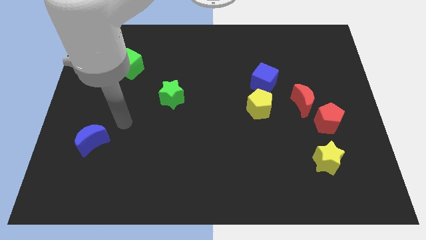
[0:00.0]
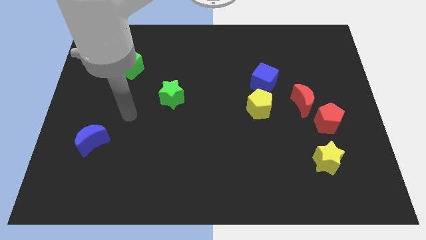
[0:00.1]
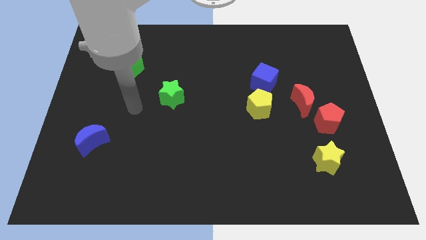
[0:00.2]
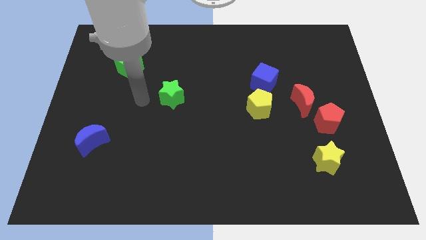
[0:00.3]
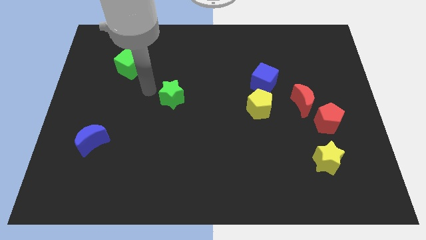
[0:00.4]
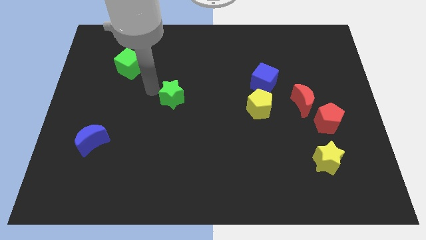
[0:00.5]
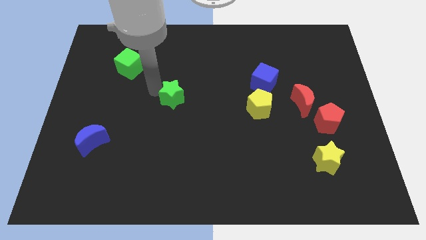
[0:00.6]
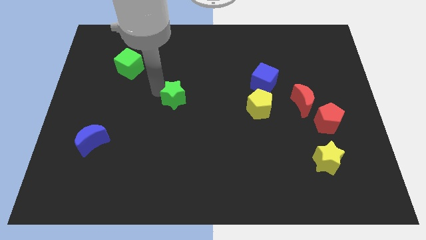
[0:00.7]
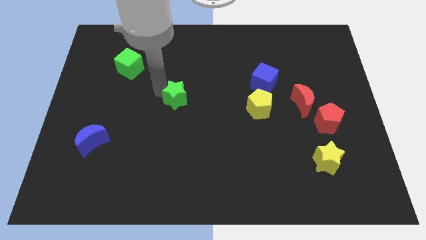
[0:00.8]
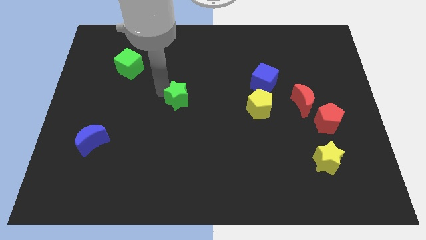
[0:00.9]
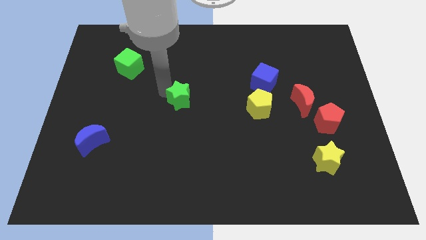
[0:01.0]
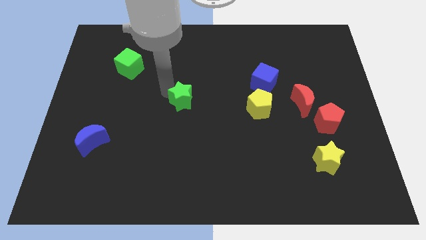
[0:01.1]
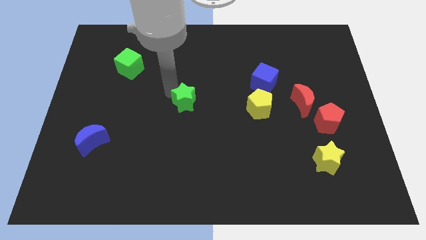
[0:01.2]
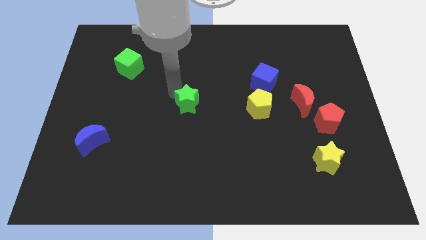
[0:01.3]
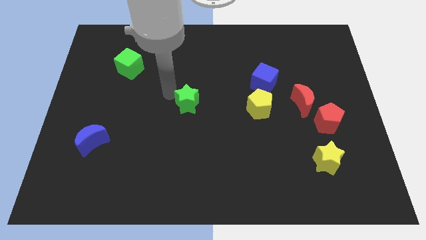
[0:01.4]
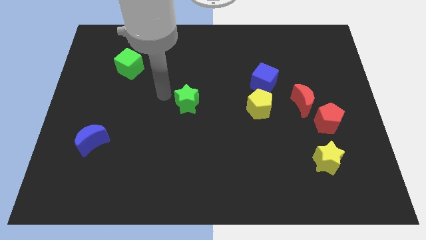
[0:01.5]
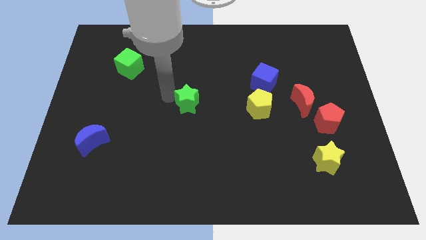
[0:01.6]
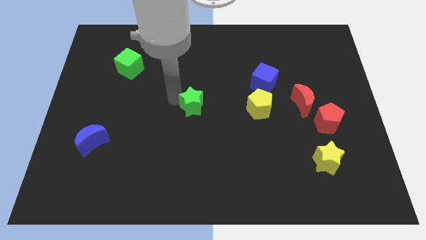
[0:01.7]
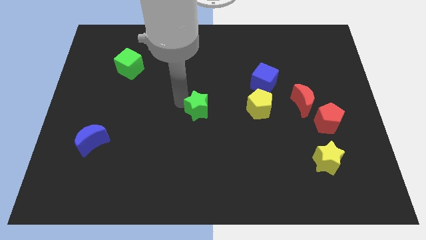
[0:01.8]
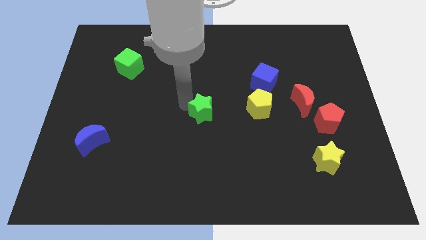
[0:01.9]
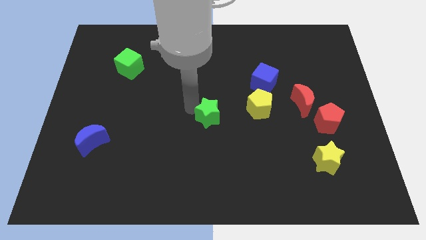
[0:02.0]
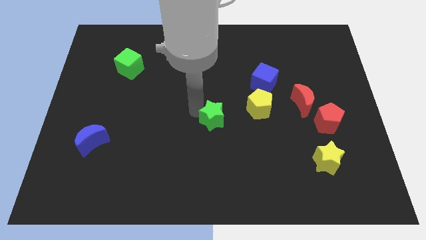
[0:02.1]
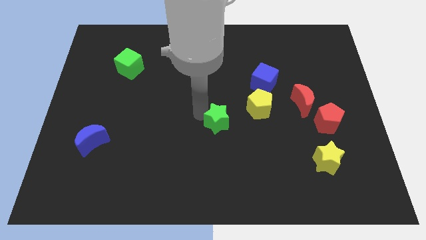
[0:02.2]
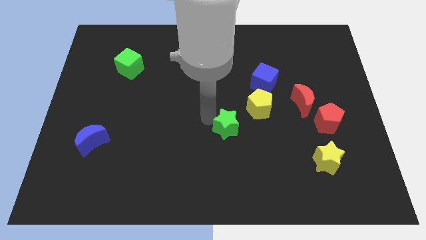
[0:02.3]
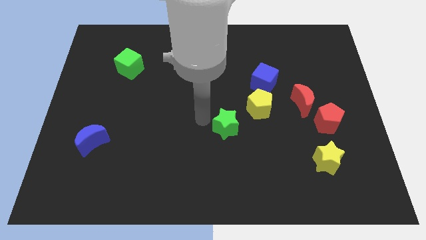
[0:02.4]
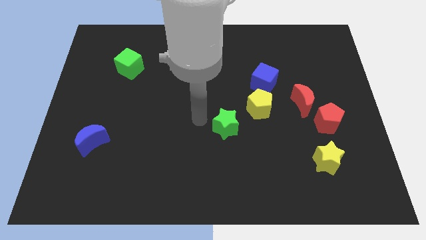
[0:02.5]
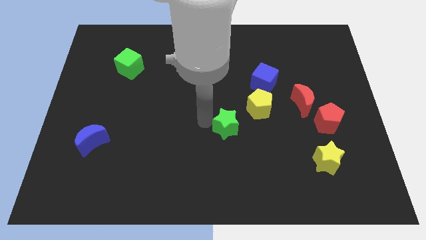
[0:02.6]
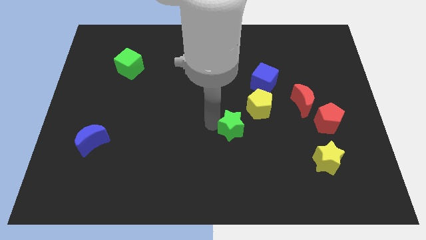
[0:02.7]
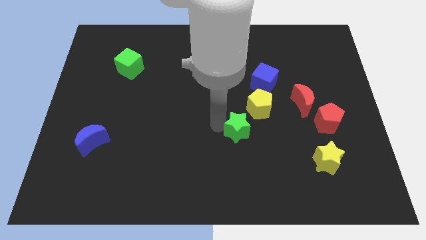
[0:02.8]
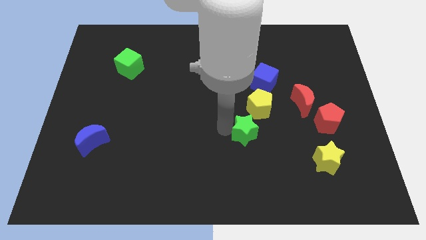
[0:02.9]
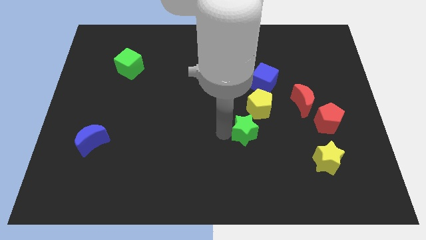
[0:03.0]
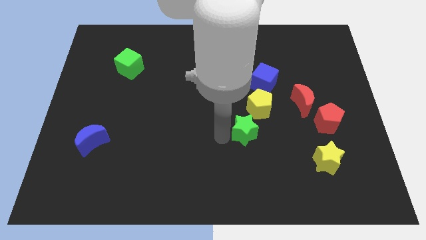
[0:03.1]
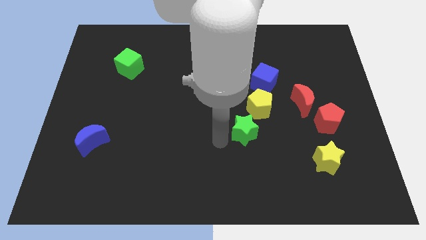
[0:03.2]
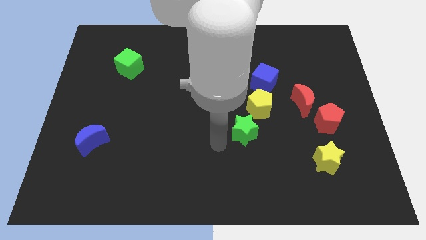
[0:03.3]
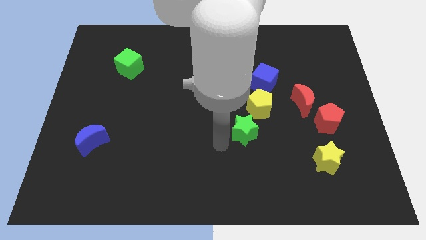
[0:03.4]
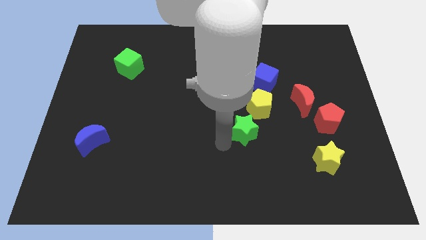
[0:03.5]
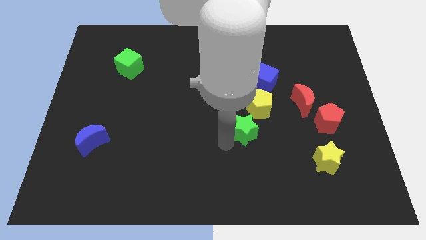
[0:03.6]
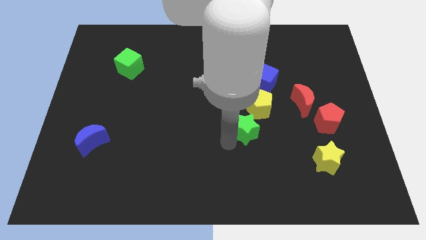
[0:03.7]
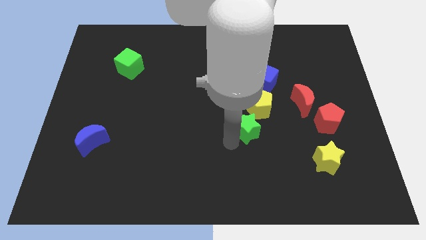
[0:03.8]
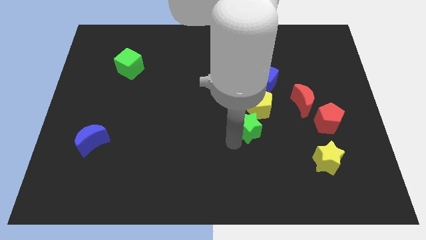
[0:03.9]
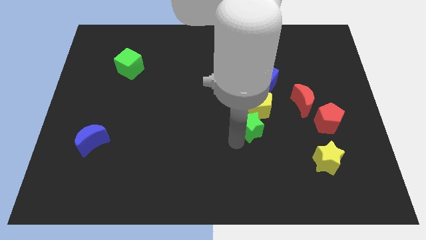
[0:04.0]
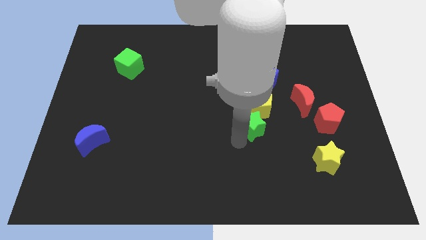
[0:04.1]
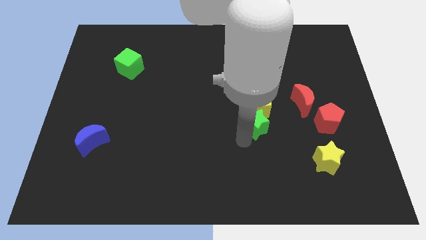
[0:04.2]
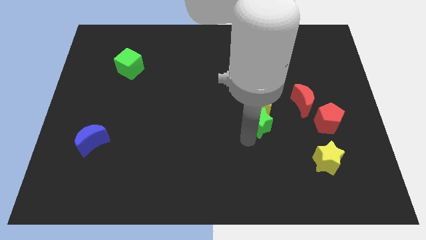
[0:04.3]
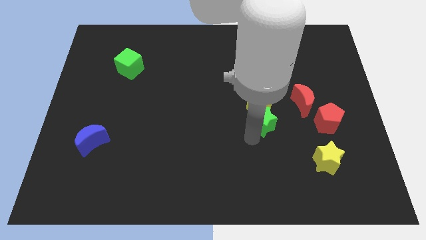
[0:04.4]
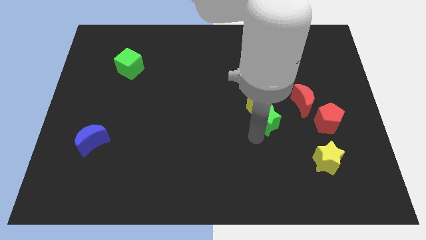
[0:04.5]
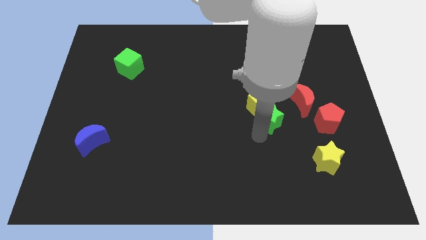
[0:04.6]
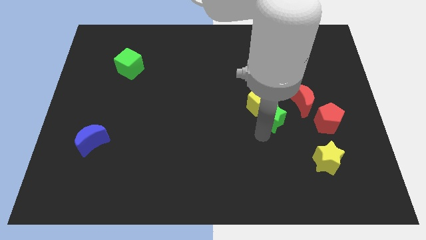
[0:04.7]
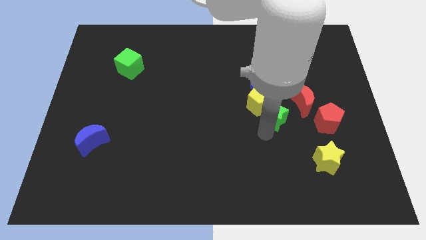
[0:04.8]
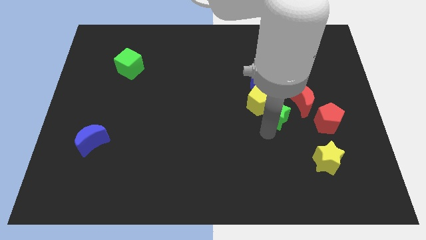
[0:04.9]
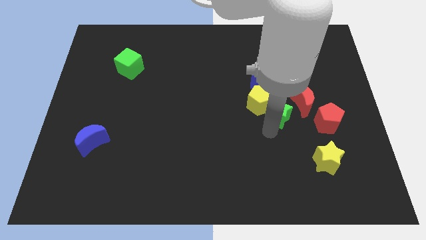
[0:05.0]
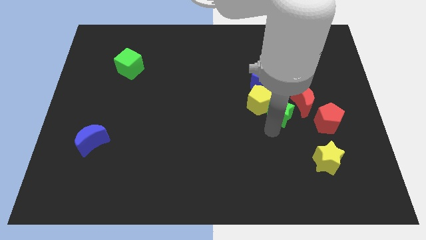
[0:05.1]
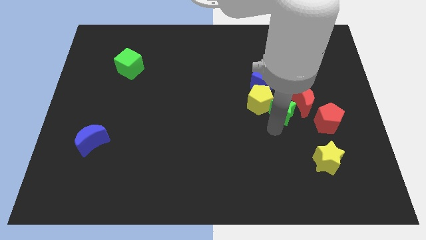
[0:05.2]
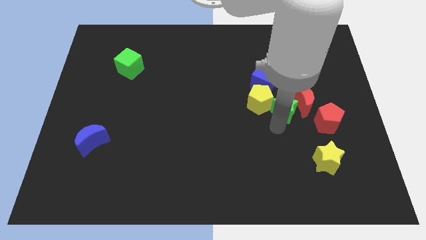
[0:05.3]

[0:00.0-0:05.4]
put the green star to the red moon
